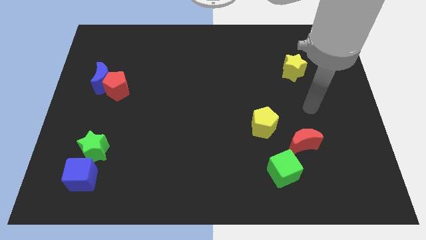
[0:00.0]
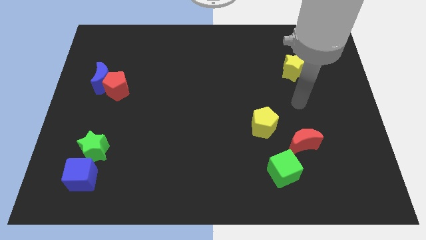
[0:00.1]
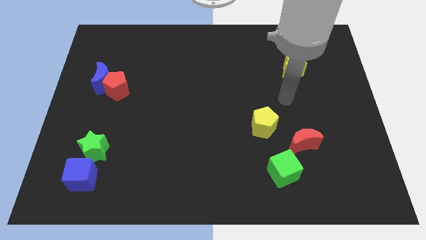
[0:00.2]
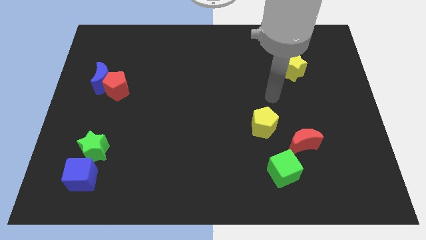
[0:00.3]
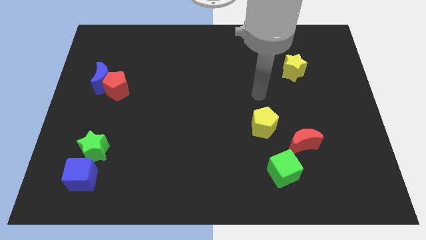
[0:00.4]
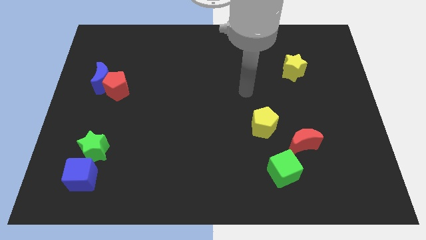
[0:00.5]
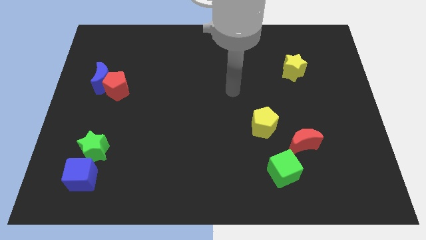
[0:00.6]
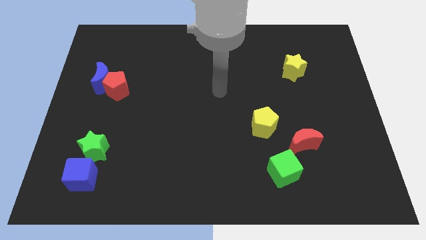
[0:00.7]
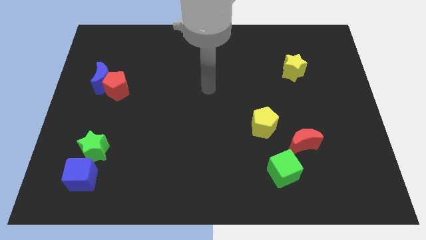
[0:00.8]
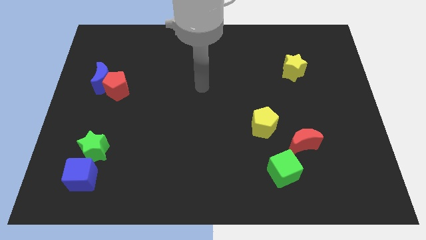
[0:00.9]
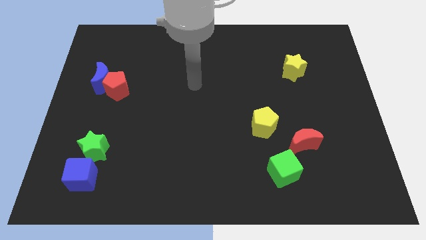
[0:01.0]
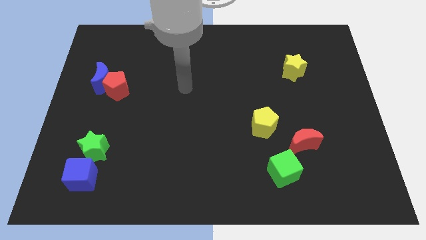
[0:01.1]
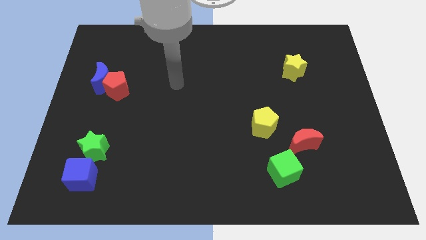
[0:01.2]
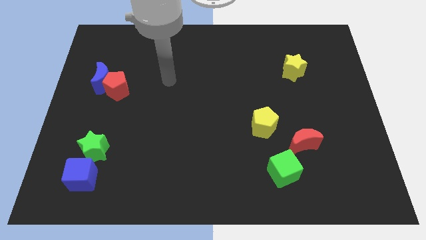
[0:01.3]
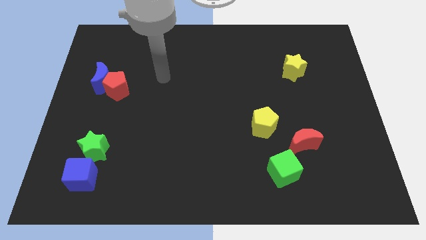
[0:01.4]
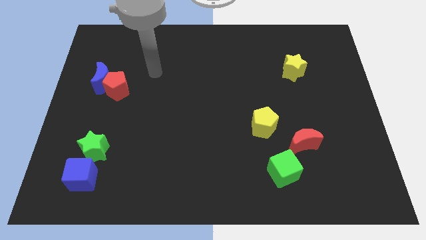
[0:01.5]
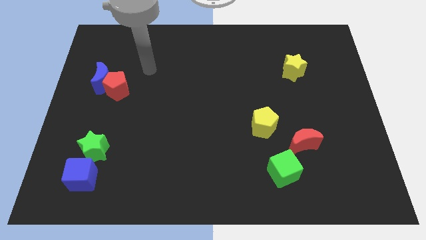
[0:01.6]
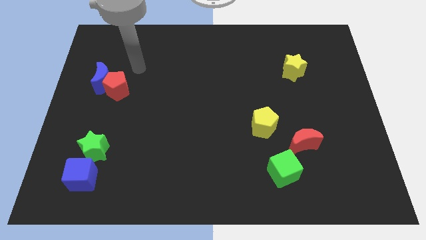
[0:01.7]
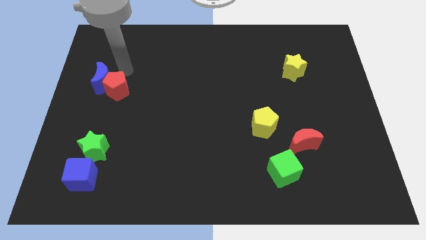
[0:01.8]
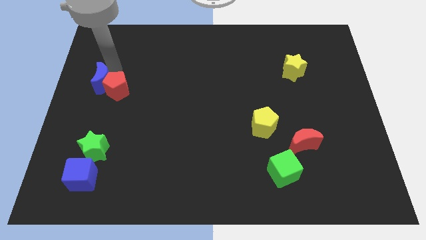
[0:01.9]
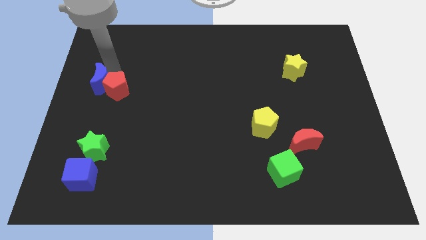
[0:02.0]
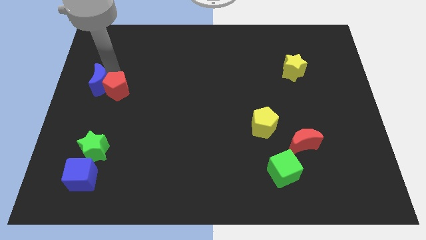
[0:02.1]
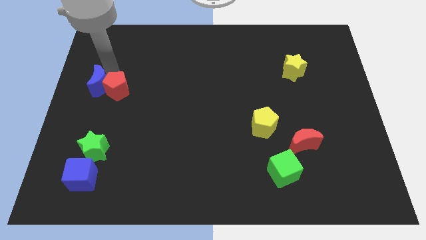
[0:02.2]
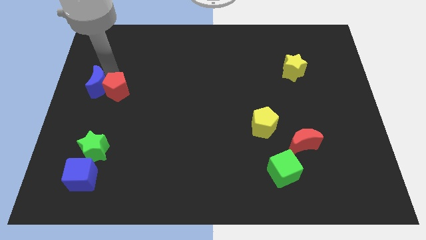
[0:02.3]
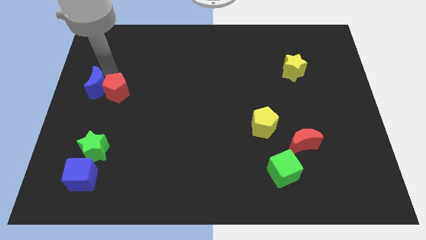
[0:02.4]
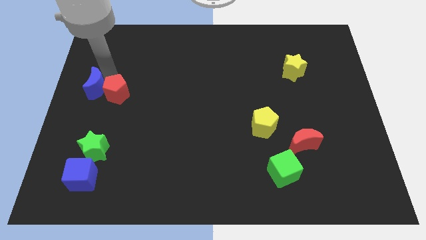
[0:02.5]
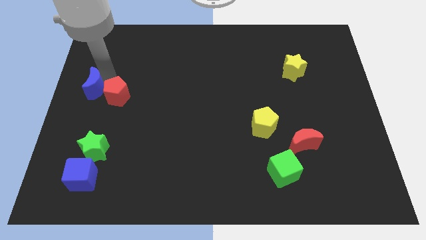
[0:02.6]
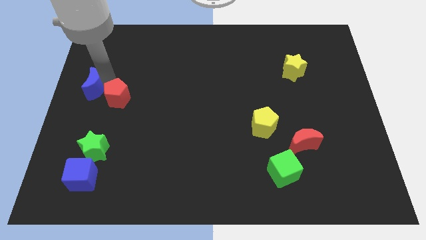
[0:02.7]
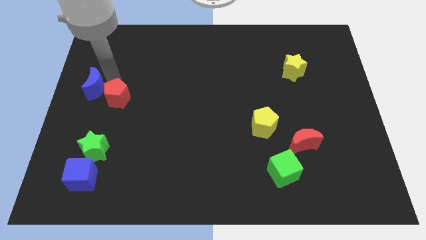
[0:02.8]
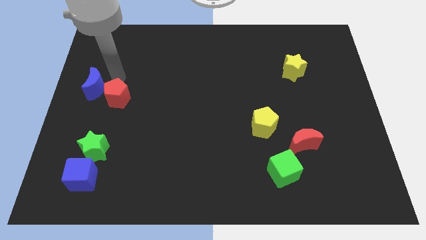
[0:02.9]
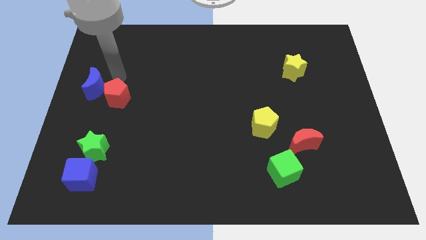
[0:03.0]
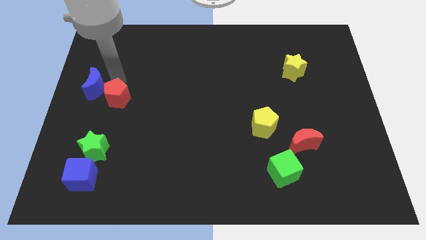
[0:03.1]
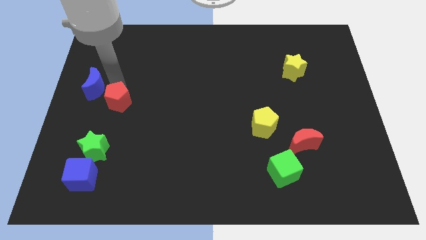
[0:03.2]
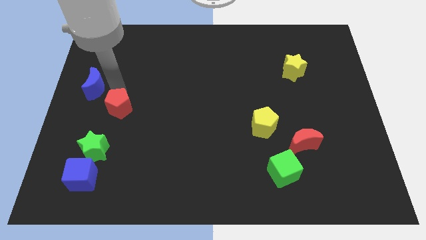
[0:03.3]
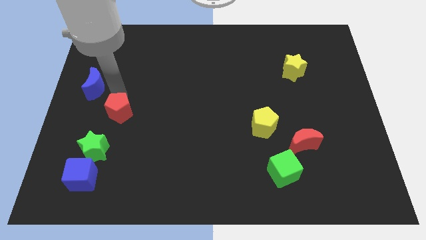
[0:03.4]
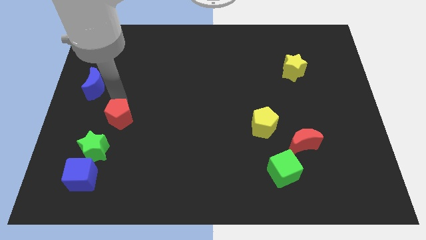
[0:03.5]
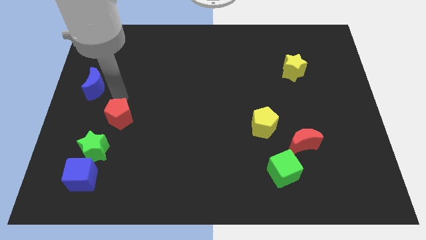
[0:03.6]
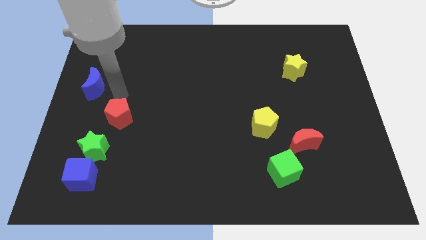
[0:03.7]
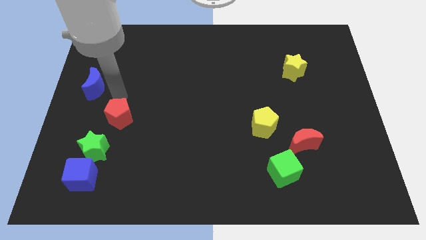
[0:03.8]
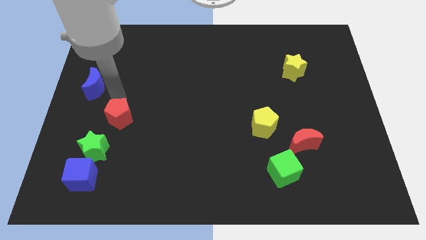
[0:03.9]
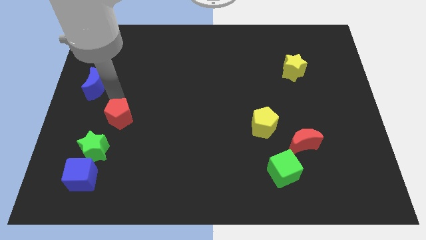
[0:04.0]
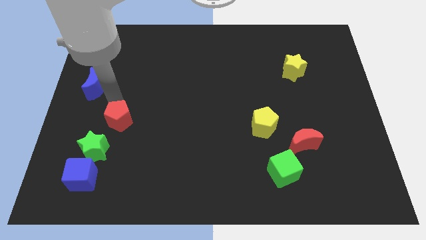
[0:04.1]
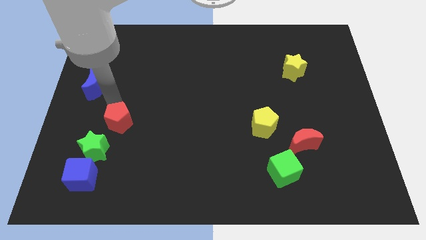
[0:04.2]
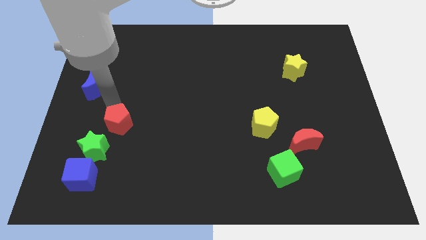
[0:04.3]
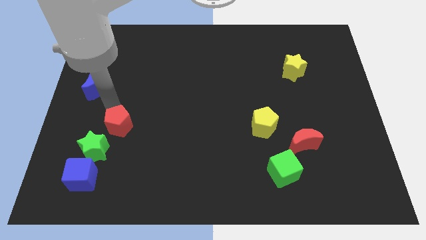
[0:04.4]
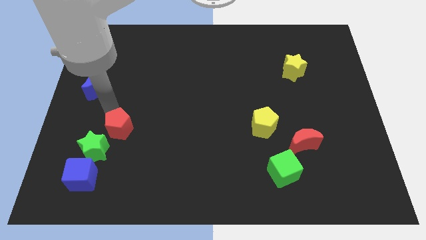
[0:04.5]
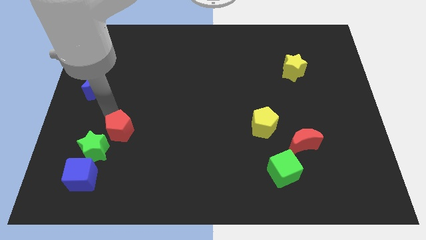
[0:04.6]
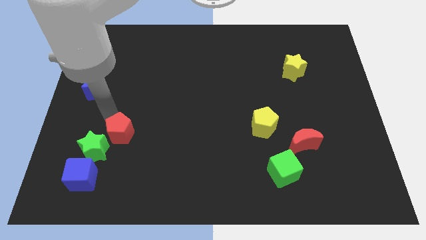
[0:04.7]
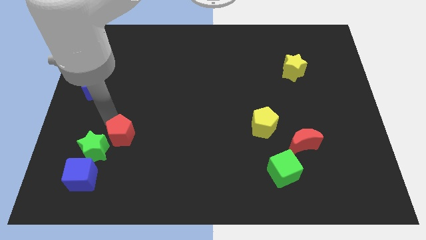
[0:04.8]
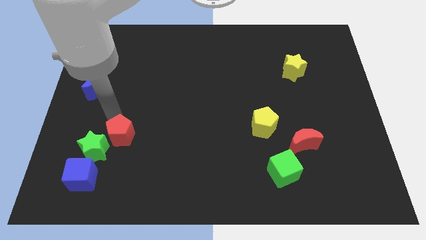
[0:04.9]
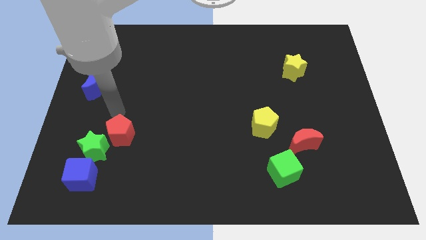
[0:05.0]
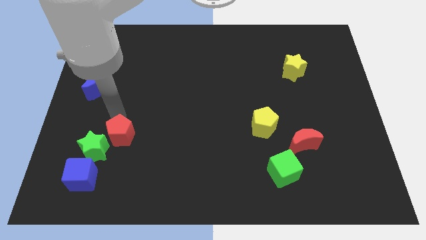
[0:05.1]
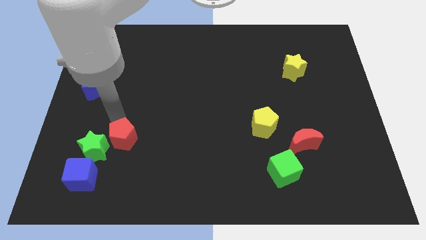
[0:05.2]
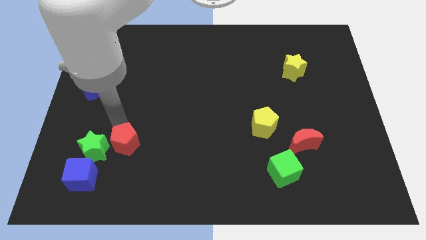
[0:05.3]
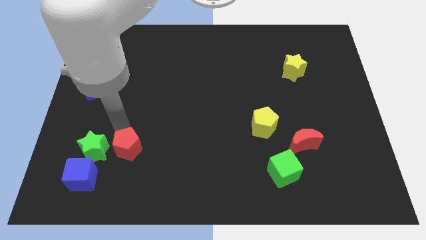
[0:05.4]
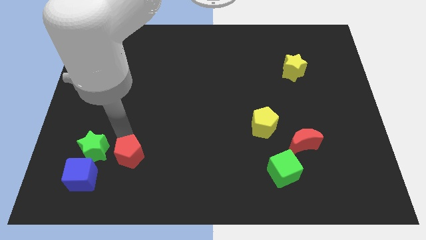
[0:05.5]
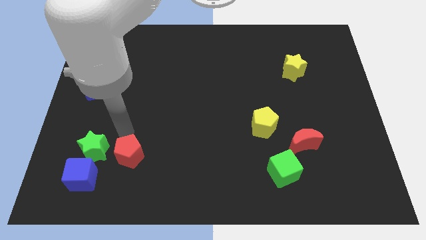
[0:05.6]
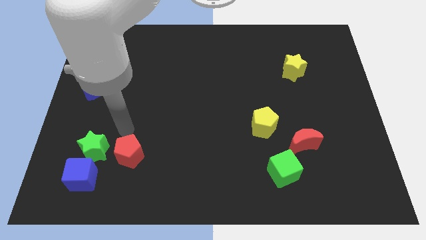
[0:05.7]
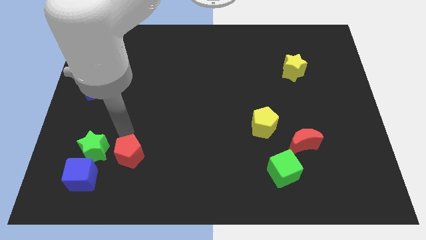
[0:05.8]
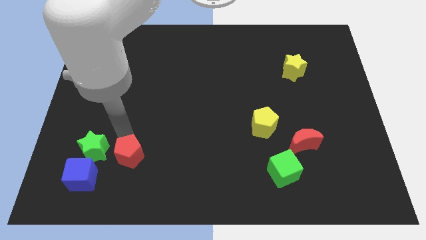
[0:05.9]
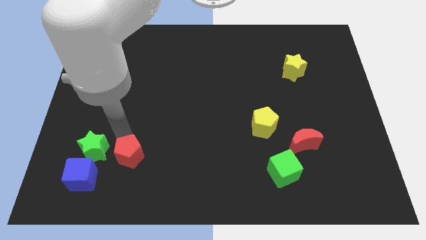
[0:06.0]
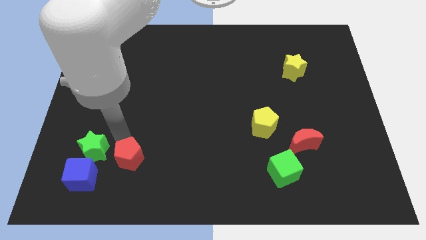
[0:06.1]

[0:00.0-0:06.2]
push the red pentagon right of the blue cube

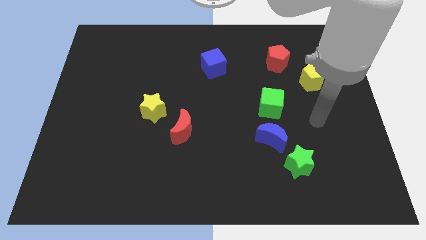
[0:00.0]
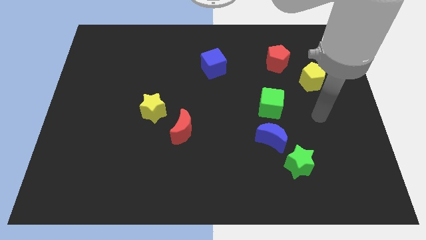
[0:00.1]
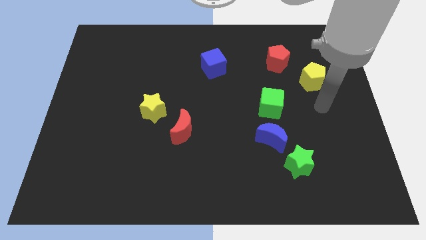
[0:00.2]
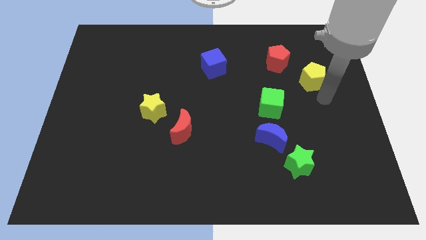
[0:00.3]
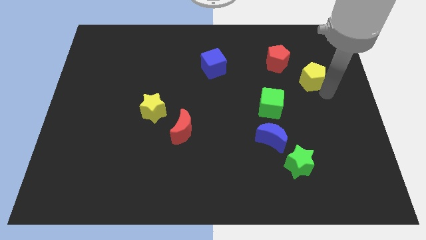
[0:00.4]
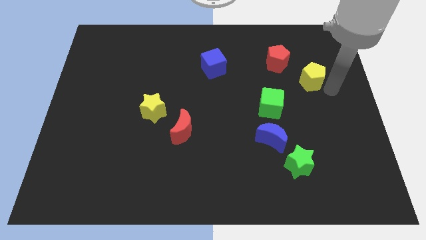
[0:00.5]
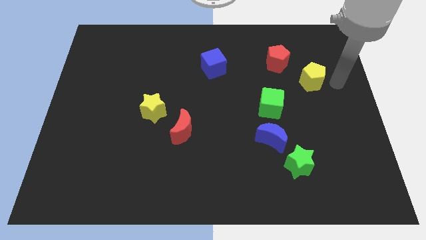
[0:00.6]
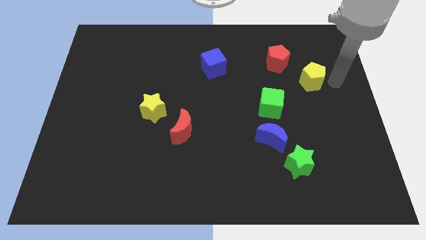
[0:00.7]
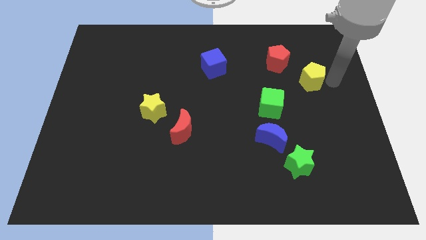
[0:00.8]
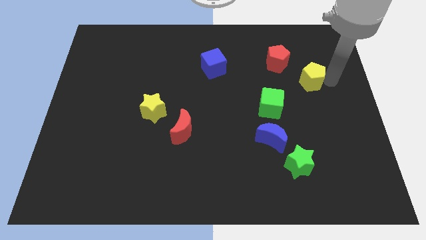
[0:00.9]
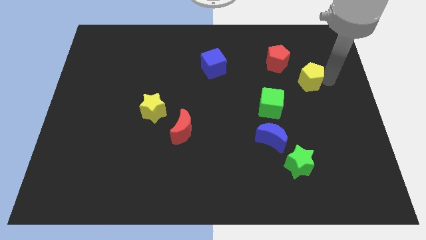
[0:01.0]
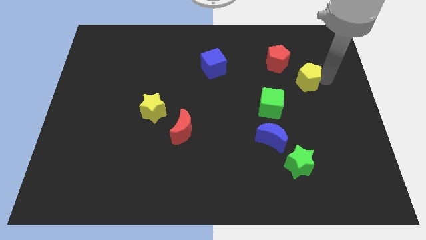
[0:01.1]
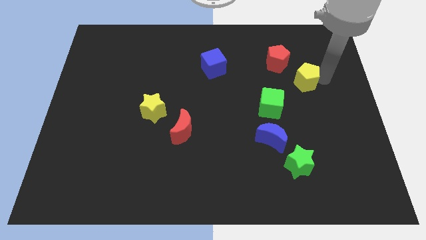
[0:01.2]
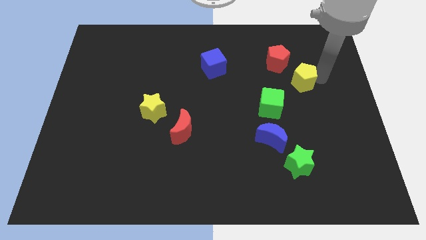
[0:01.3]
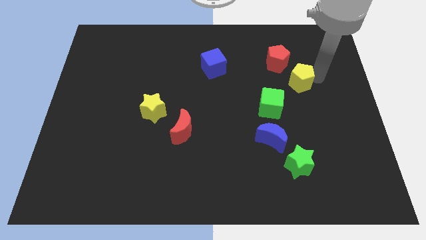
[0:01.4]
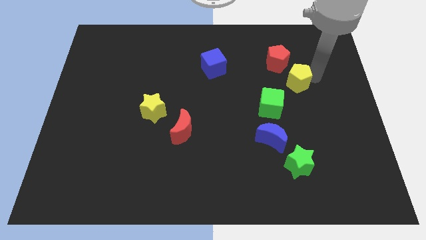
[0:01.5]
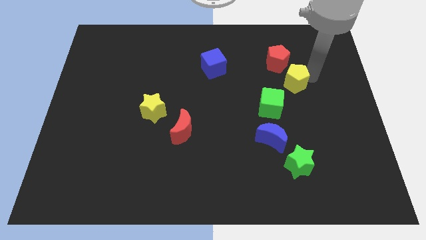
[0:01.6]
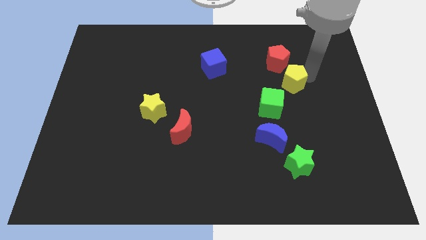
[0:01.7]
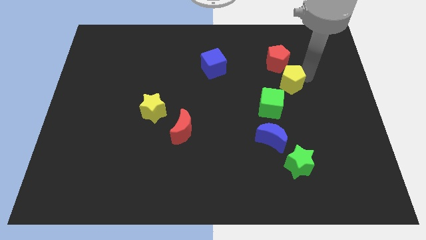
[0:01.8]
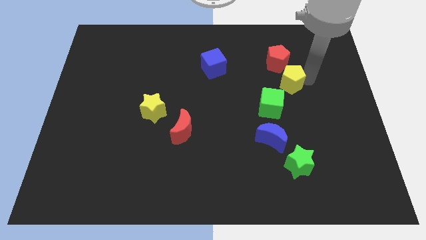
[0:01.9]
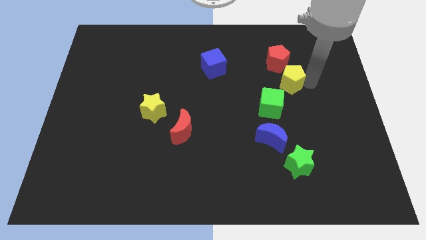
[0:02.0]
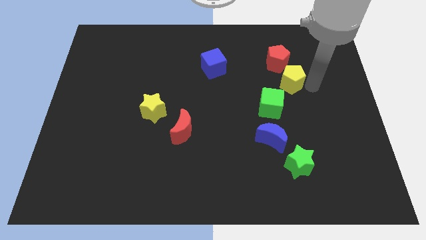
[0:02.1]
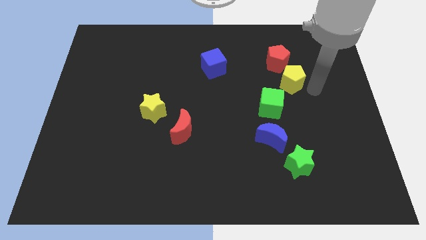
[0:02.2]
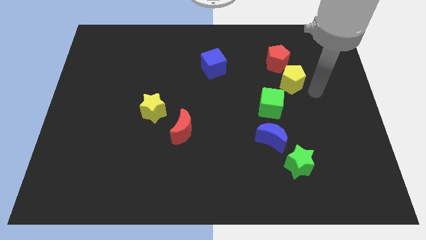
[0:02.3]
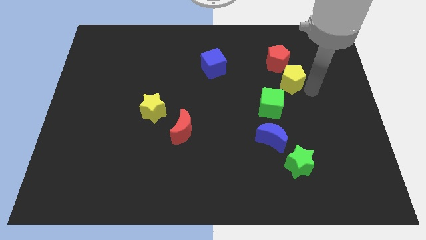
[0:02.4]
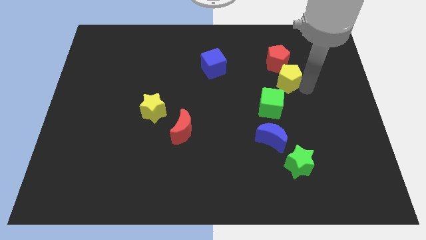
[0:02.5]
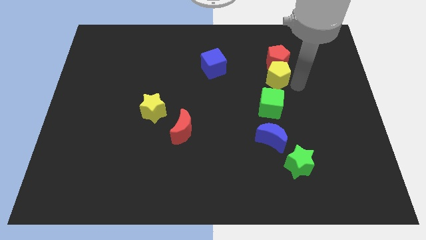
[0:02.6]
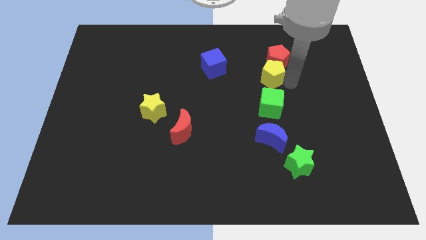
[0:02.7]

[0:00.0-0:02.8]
push the yellow pentagon right of the blue cube

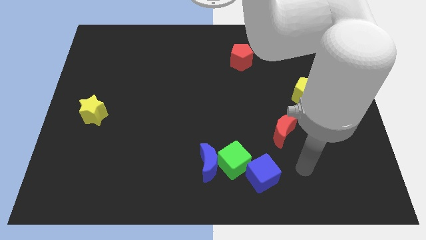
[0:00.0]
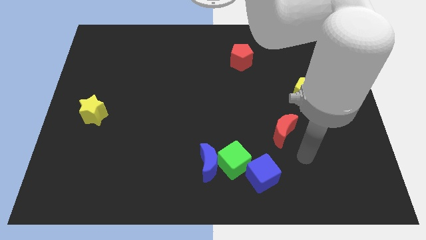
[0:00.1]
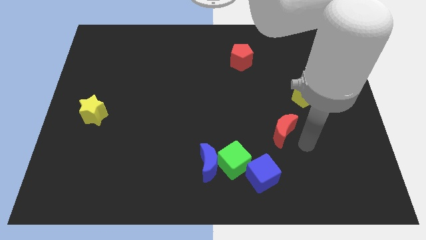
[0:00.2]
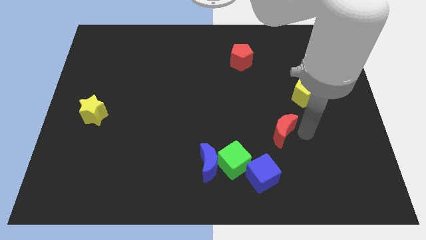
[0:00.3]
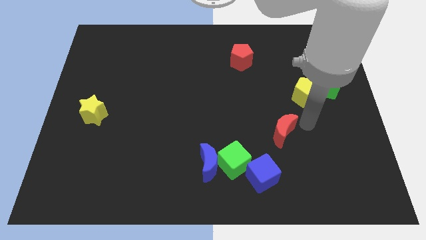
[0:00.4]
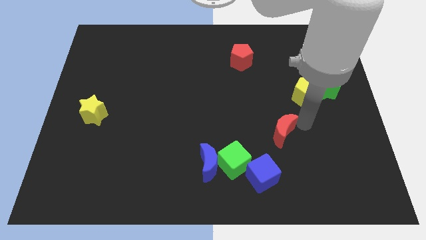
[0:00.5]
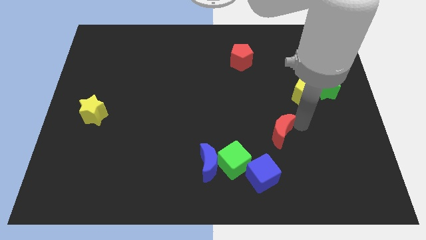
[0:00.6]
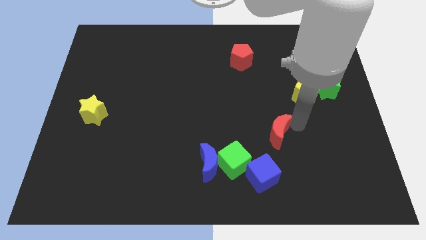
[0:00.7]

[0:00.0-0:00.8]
slide the red moon diagonally up and to the right of the green cube
